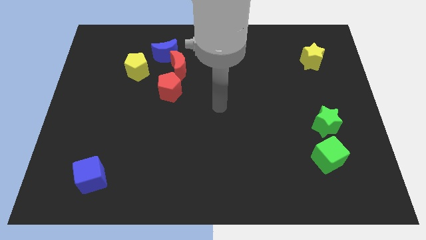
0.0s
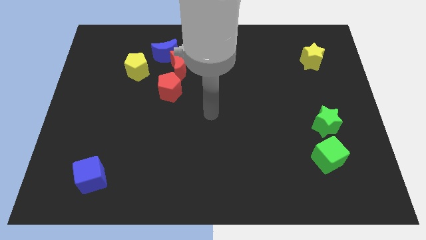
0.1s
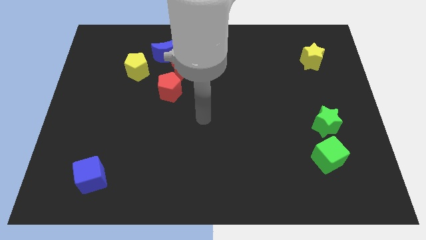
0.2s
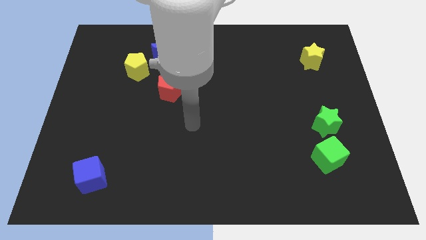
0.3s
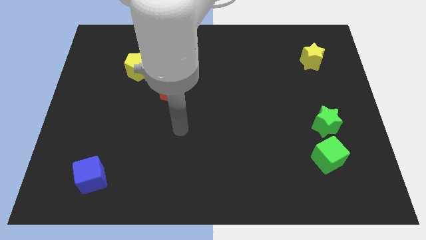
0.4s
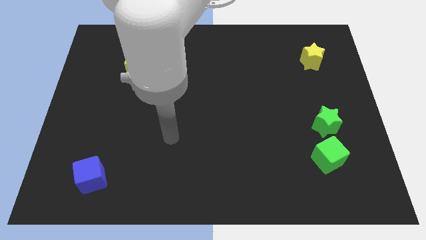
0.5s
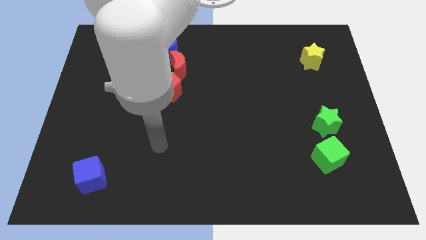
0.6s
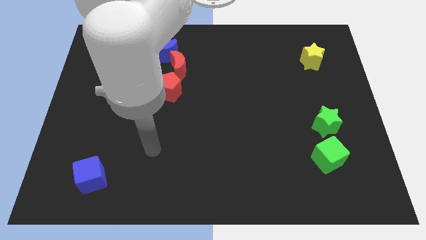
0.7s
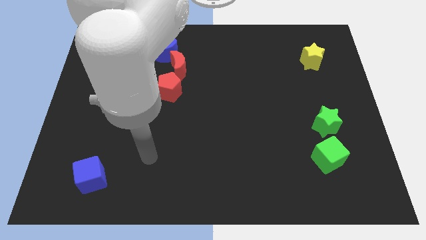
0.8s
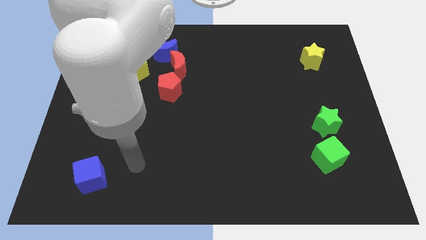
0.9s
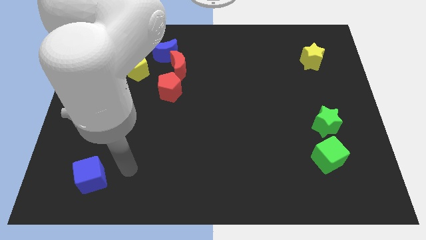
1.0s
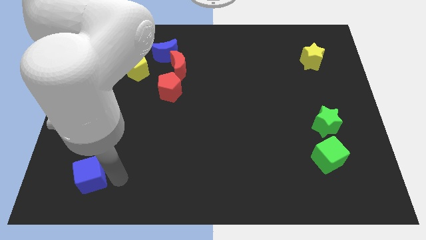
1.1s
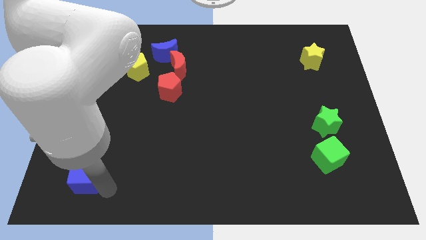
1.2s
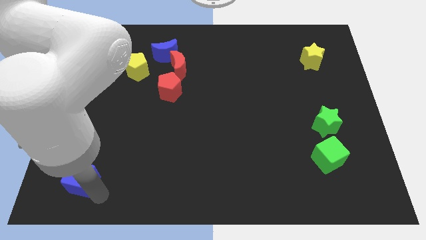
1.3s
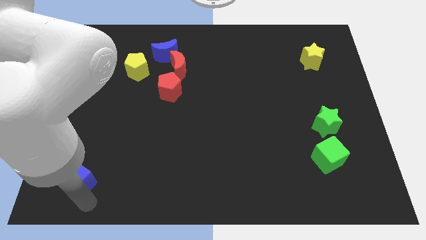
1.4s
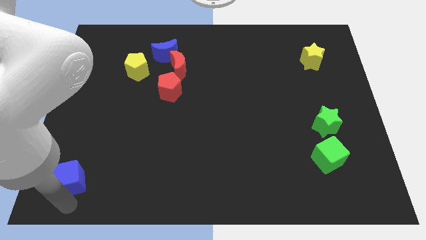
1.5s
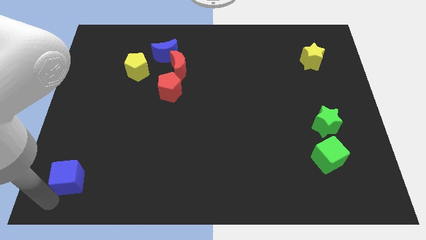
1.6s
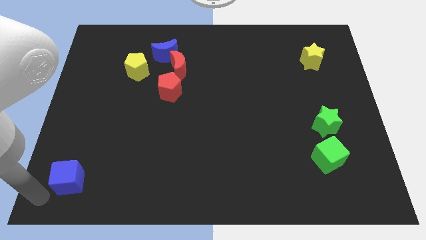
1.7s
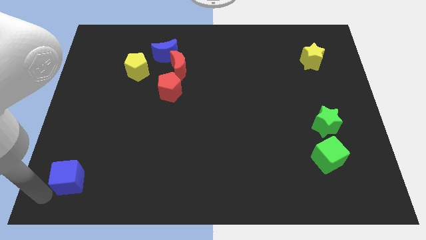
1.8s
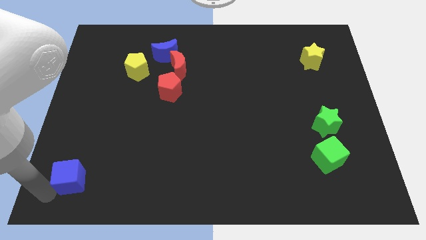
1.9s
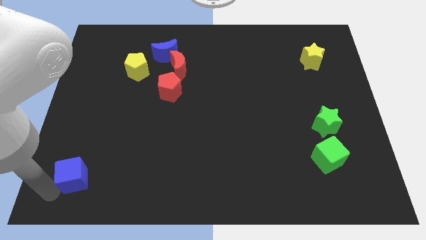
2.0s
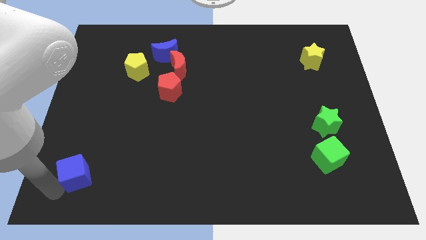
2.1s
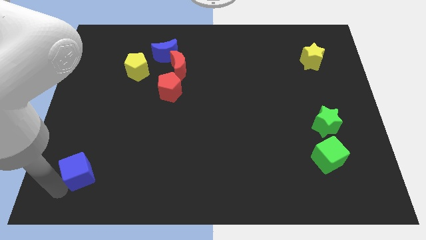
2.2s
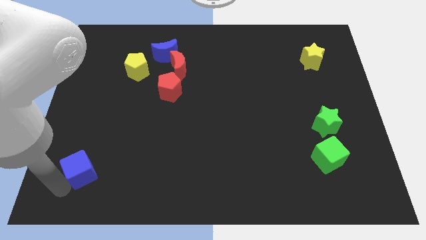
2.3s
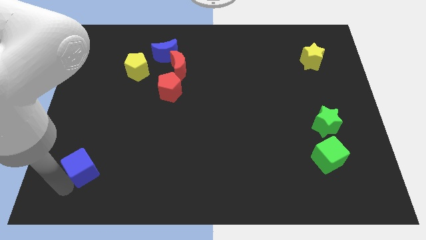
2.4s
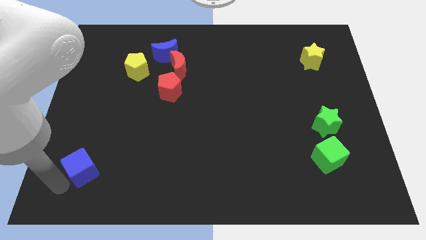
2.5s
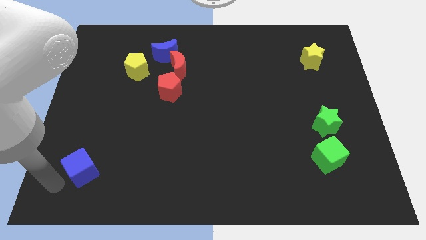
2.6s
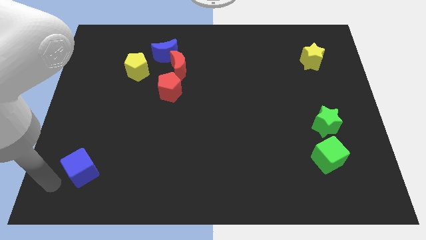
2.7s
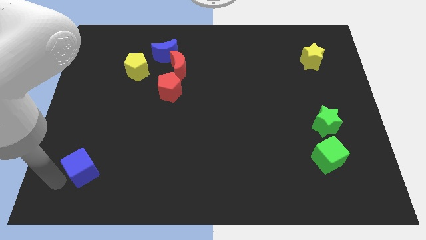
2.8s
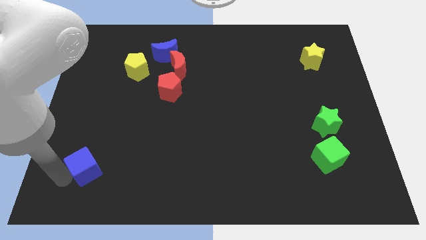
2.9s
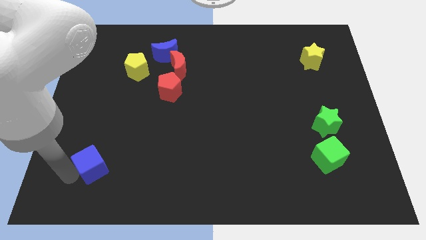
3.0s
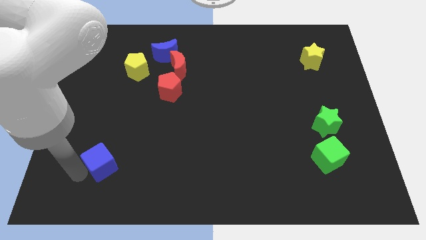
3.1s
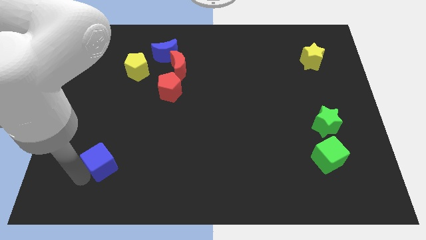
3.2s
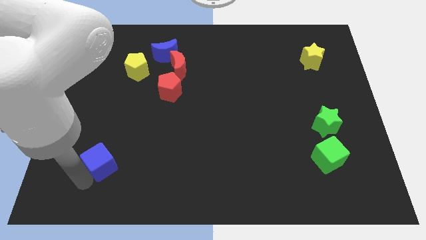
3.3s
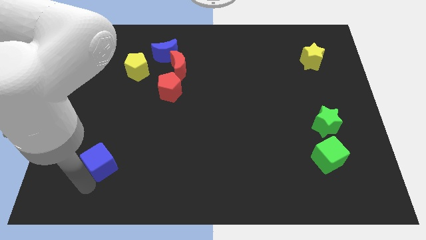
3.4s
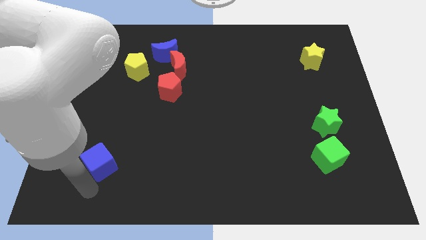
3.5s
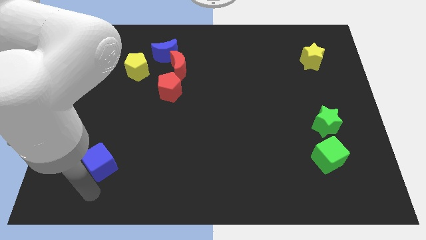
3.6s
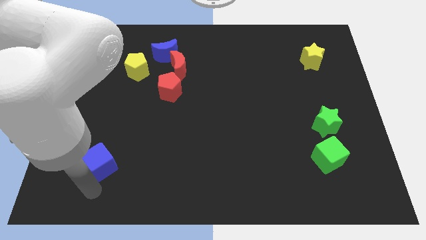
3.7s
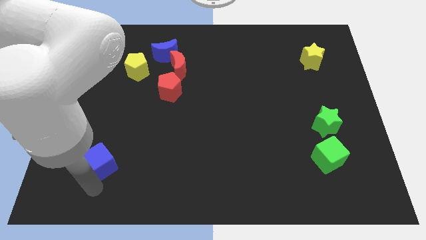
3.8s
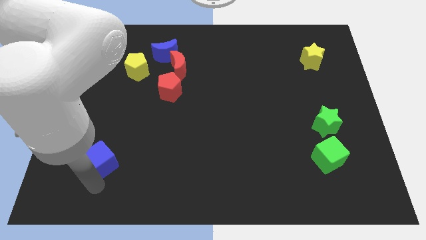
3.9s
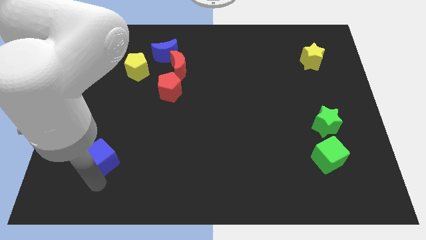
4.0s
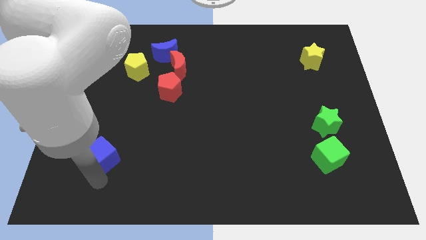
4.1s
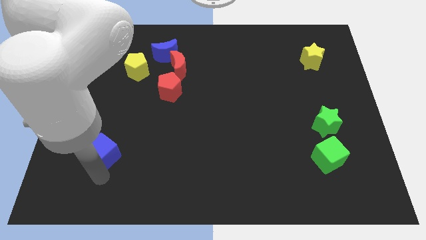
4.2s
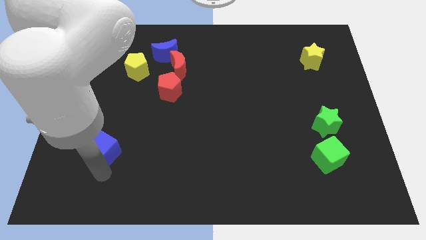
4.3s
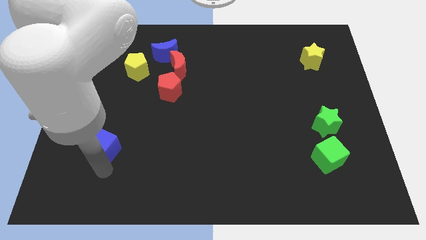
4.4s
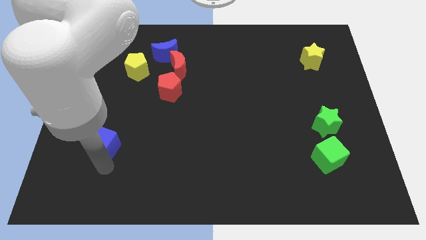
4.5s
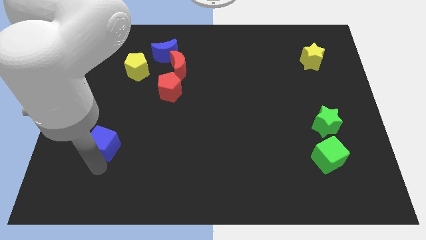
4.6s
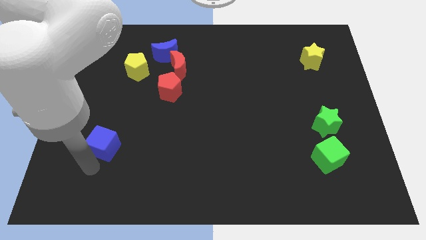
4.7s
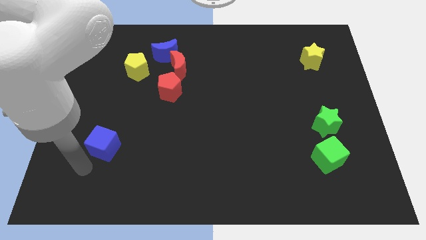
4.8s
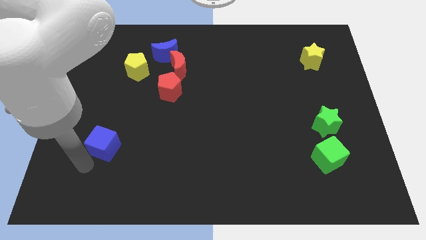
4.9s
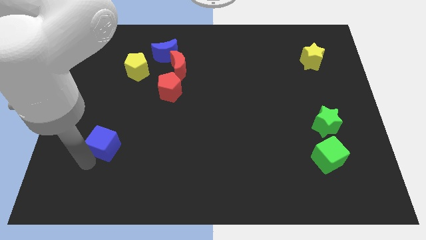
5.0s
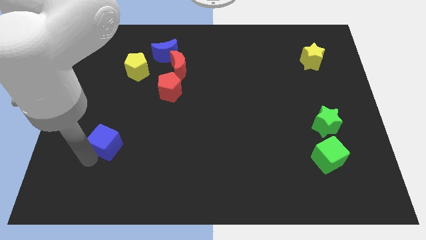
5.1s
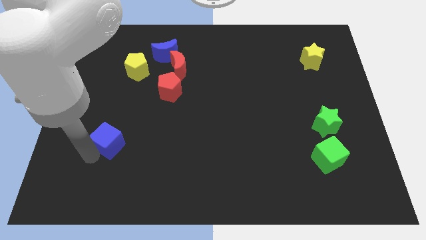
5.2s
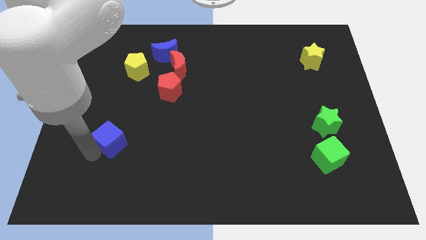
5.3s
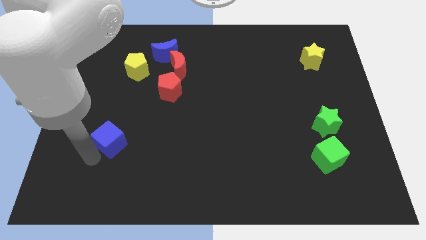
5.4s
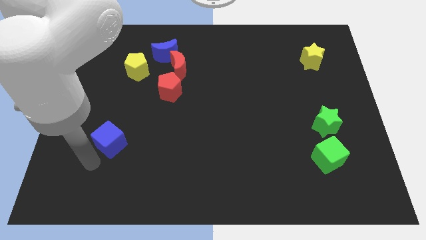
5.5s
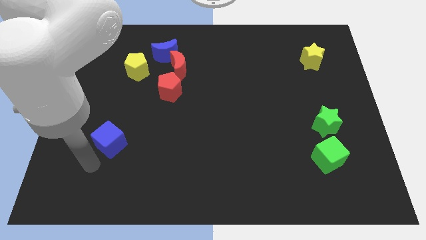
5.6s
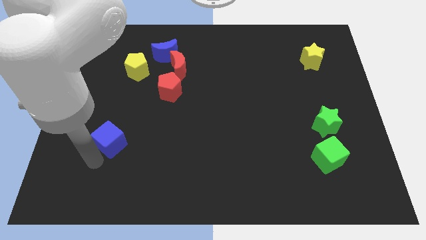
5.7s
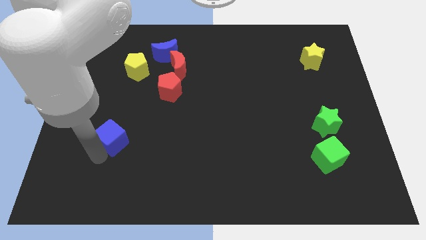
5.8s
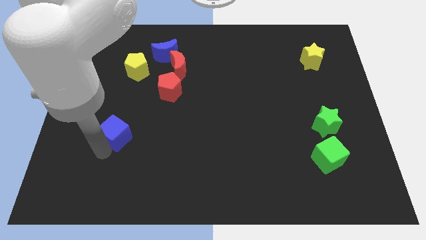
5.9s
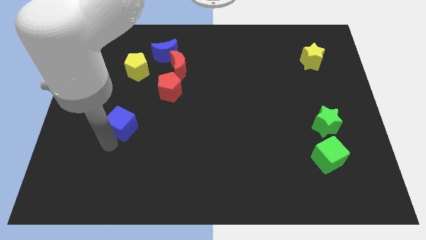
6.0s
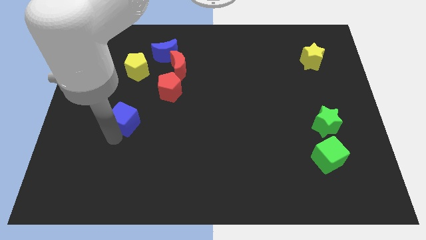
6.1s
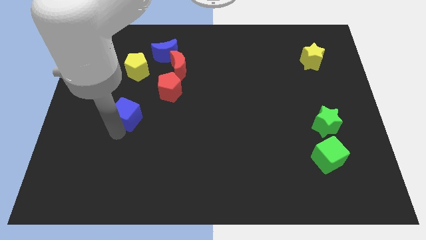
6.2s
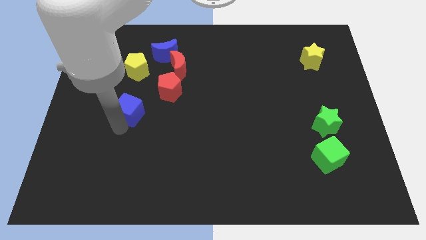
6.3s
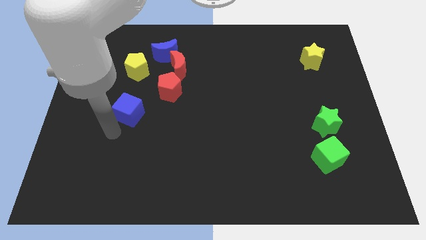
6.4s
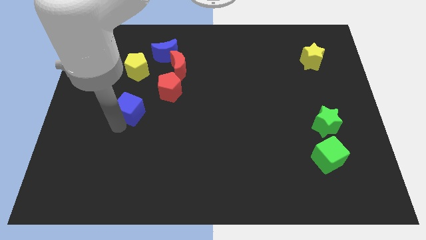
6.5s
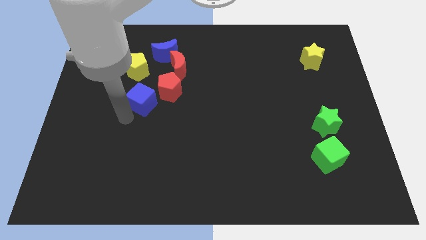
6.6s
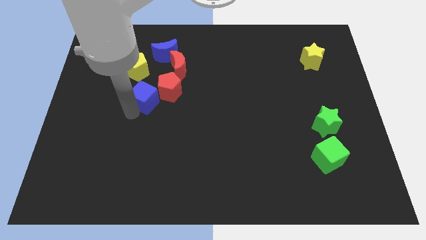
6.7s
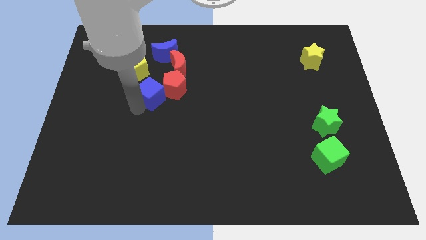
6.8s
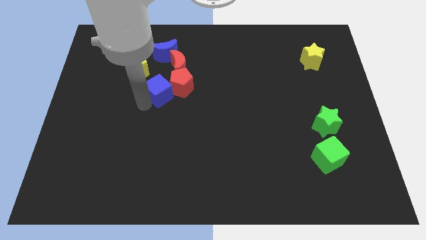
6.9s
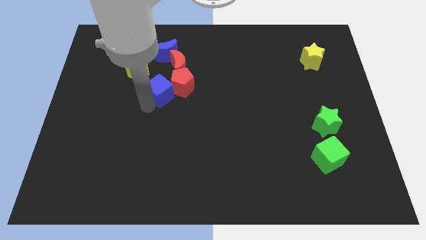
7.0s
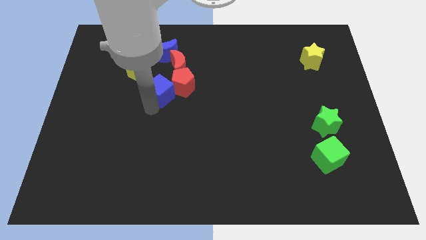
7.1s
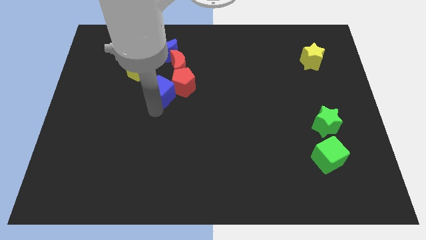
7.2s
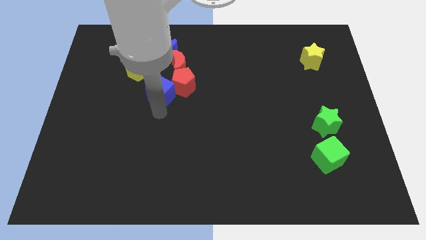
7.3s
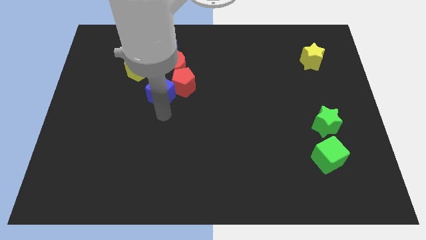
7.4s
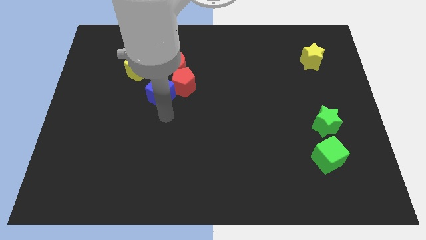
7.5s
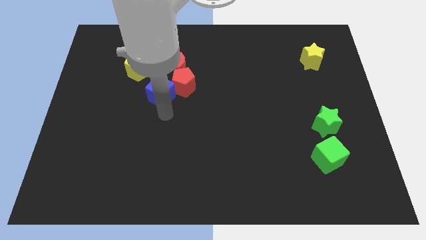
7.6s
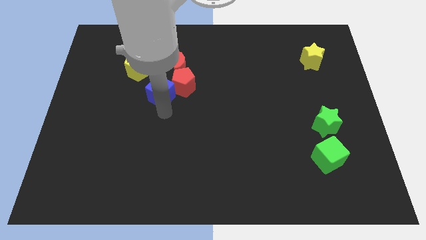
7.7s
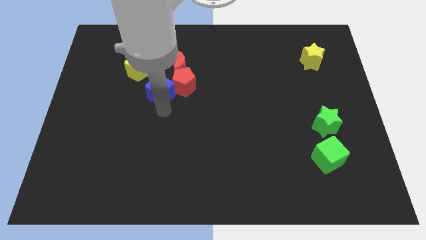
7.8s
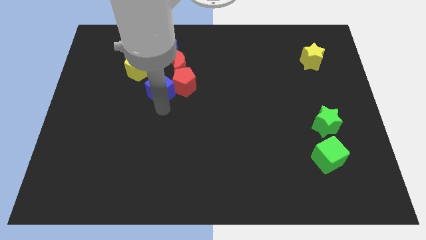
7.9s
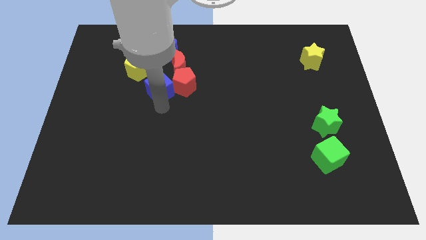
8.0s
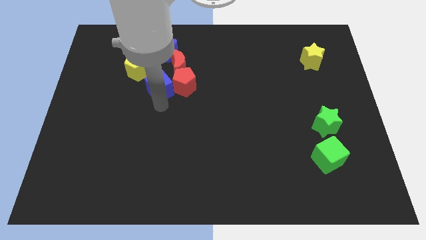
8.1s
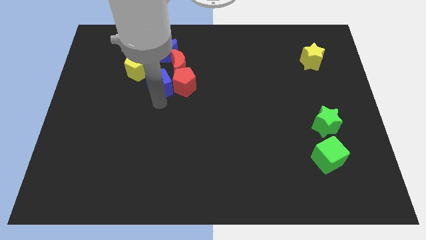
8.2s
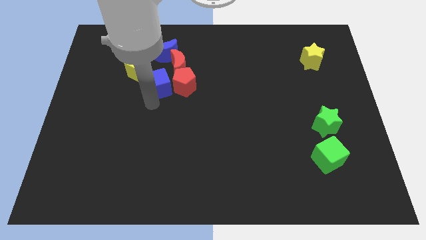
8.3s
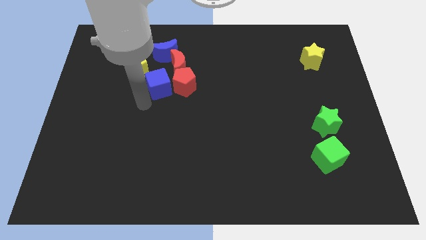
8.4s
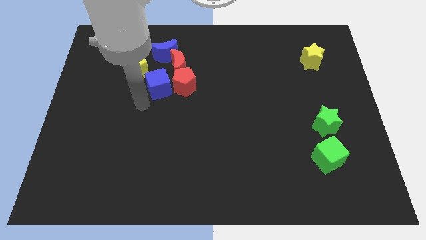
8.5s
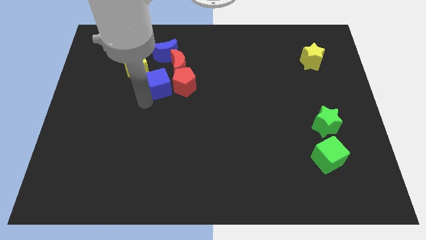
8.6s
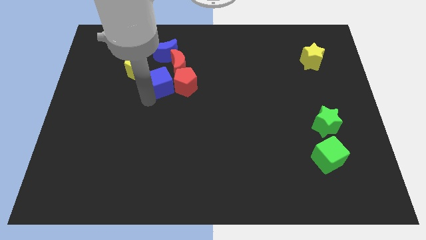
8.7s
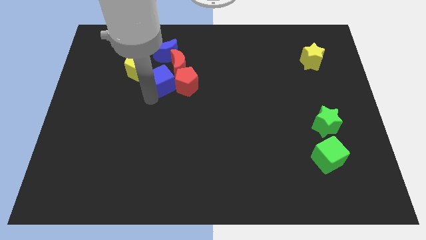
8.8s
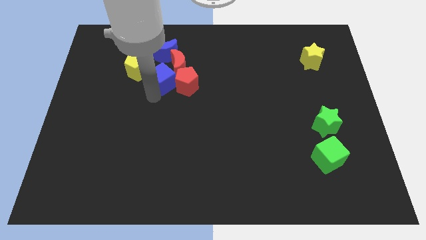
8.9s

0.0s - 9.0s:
slide the blue cube next to the red moon
